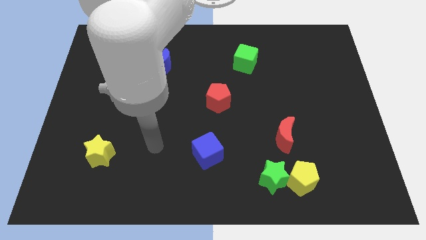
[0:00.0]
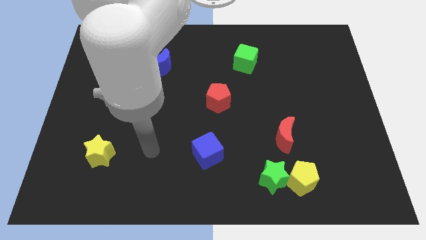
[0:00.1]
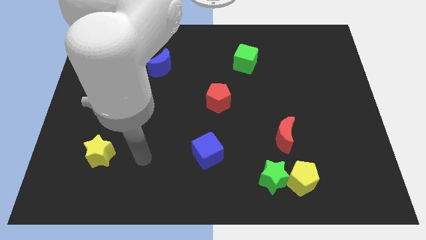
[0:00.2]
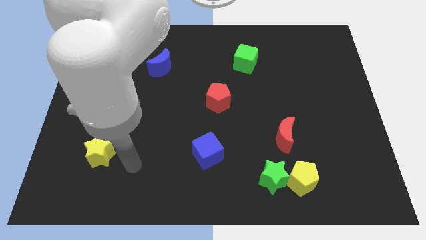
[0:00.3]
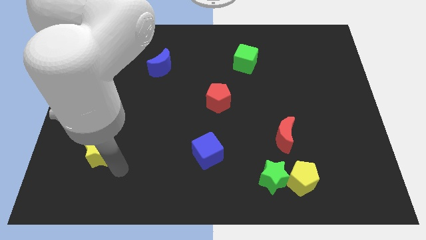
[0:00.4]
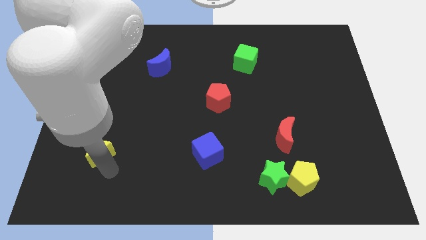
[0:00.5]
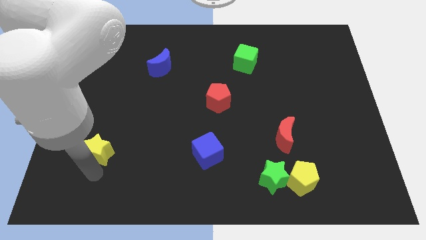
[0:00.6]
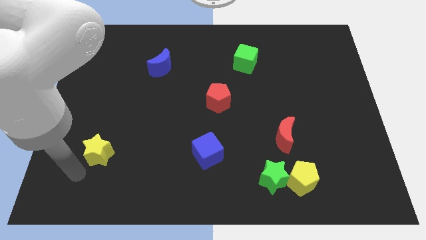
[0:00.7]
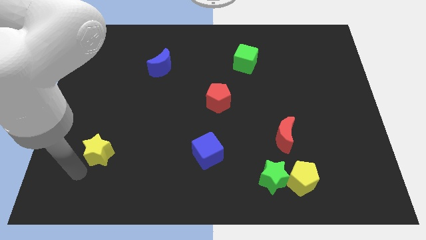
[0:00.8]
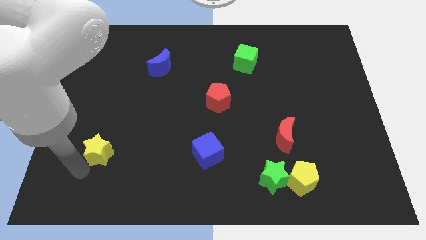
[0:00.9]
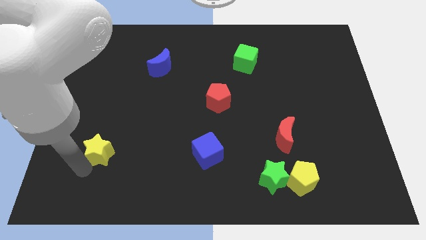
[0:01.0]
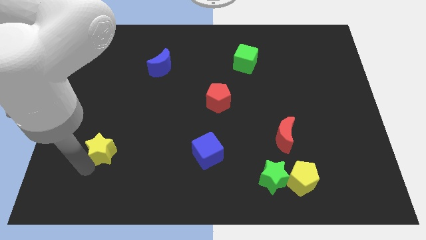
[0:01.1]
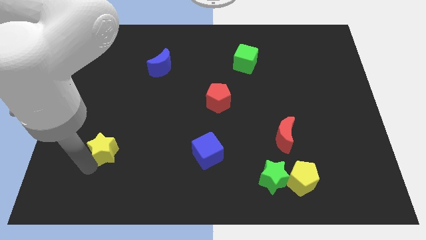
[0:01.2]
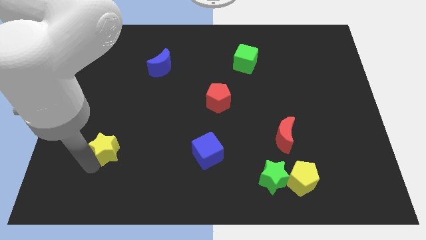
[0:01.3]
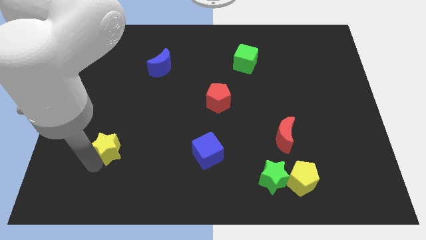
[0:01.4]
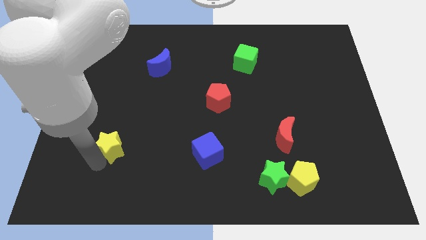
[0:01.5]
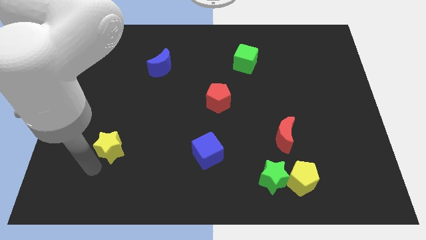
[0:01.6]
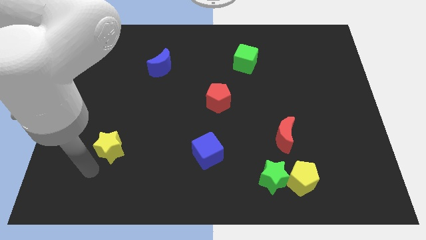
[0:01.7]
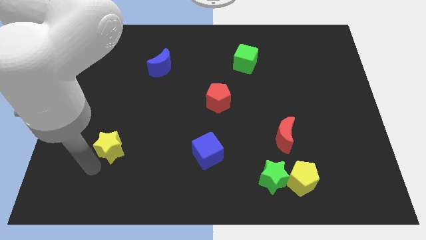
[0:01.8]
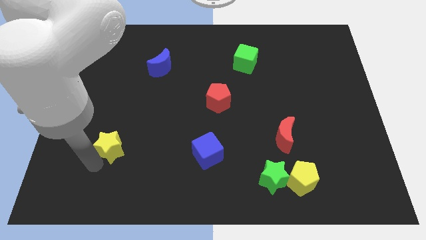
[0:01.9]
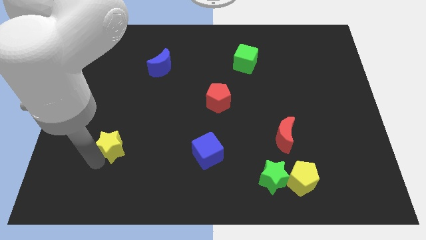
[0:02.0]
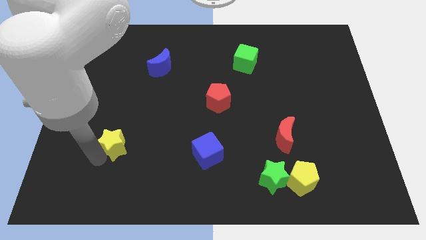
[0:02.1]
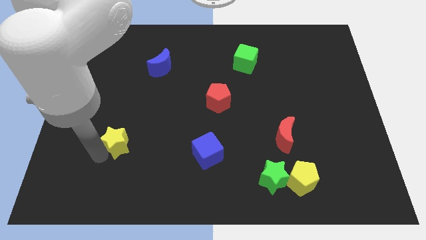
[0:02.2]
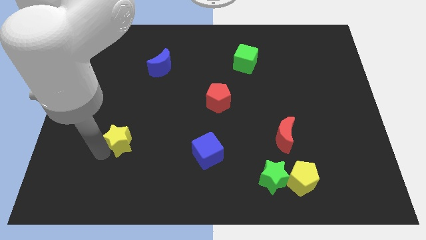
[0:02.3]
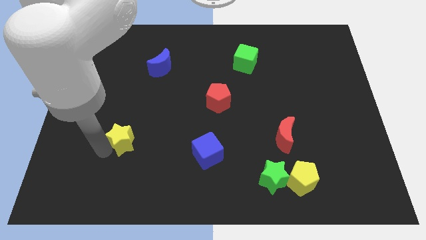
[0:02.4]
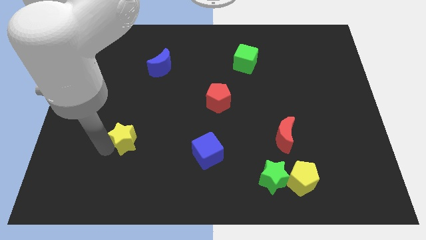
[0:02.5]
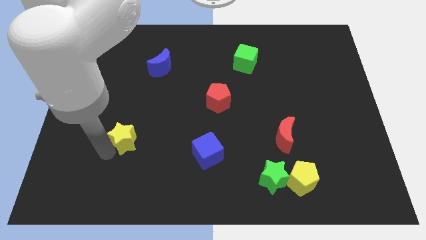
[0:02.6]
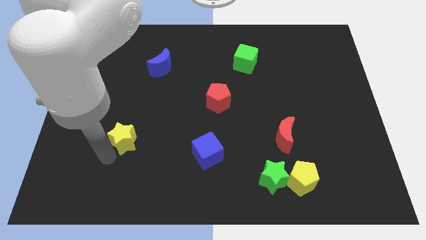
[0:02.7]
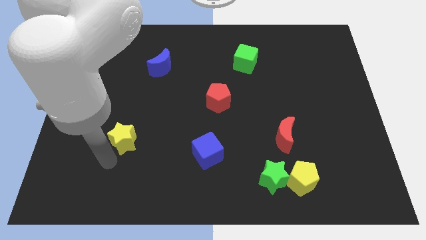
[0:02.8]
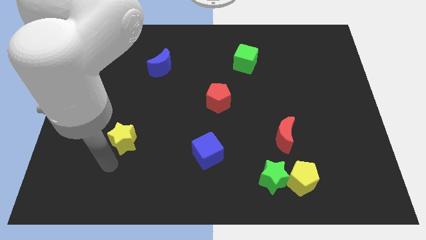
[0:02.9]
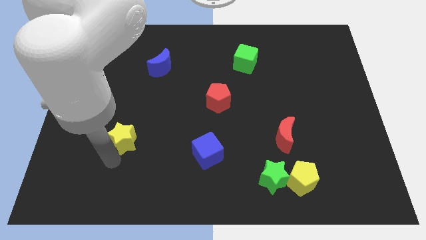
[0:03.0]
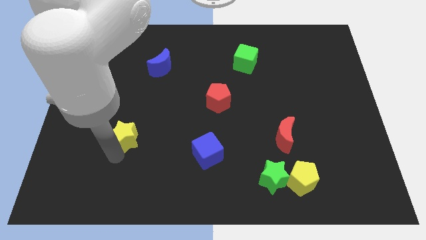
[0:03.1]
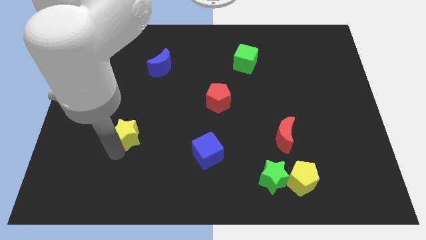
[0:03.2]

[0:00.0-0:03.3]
slide the yellow star slightly upwards and to the right diagonally

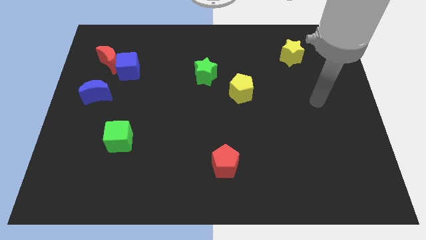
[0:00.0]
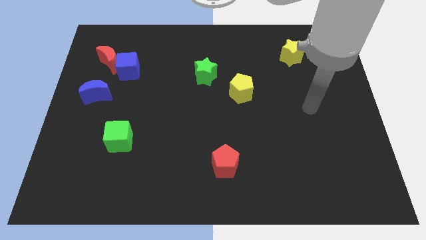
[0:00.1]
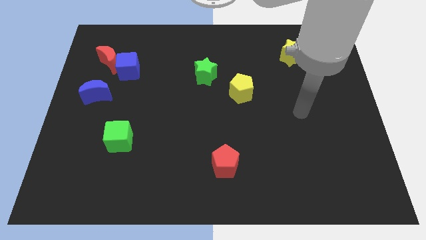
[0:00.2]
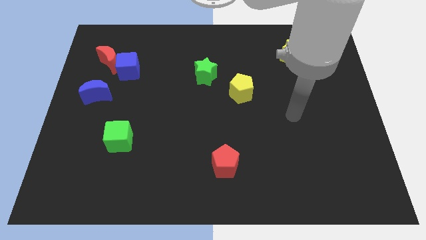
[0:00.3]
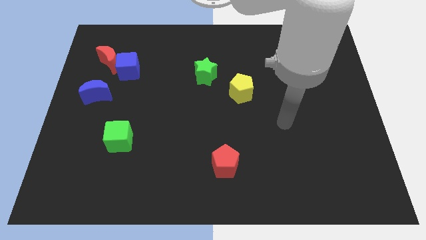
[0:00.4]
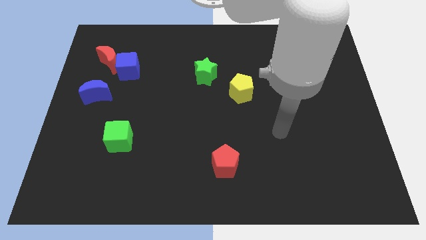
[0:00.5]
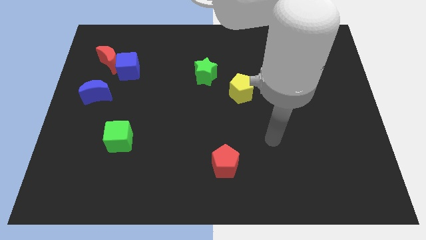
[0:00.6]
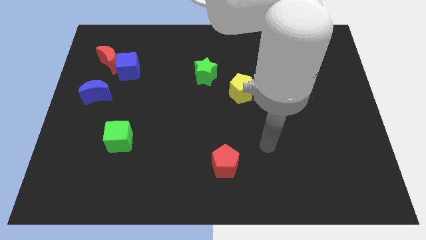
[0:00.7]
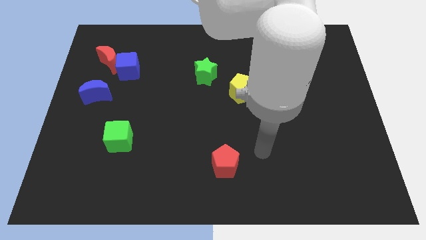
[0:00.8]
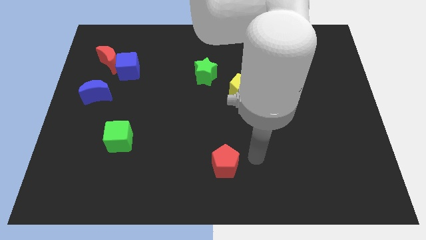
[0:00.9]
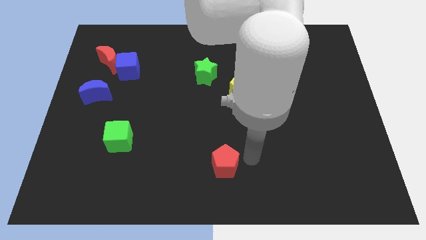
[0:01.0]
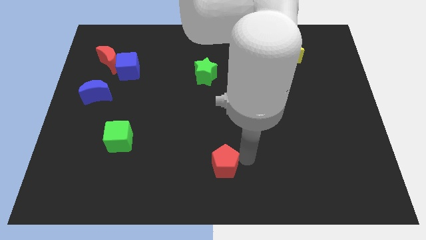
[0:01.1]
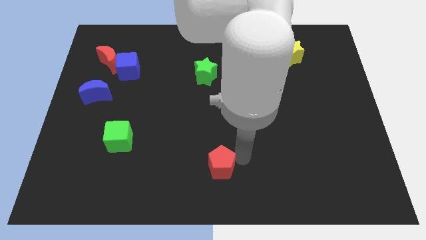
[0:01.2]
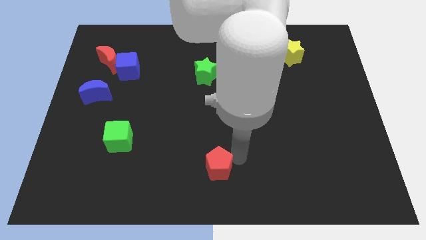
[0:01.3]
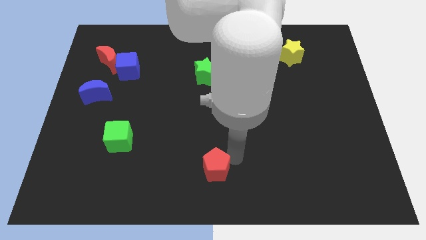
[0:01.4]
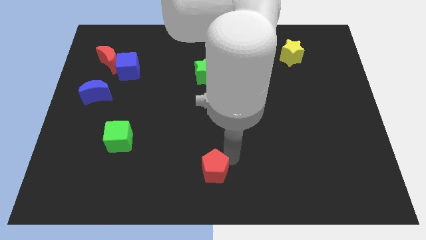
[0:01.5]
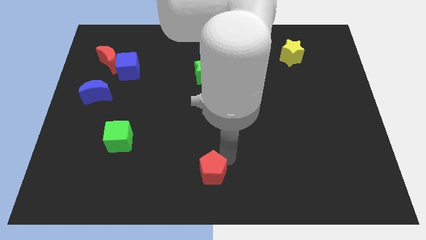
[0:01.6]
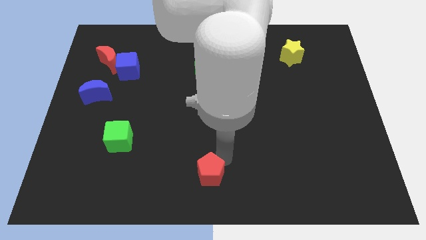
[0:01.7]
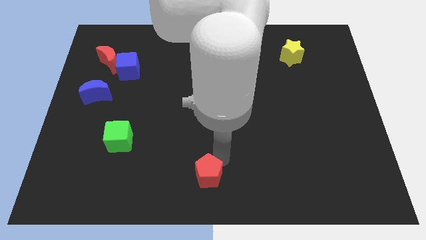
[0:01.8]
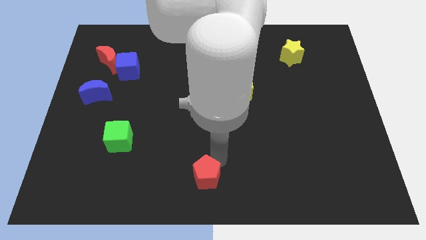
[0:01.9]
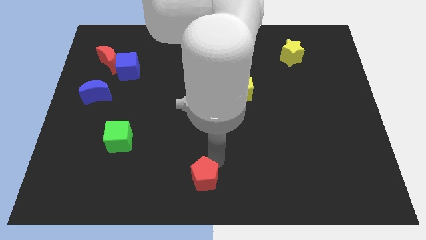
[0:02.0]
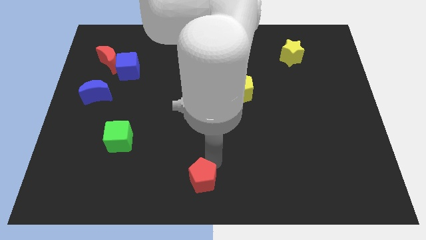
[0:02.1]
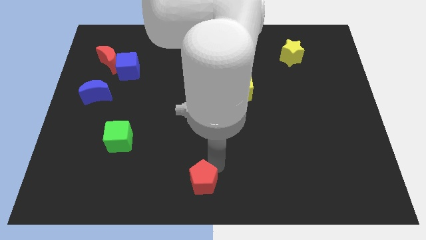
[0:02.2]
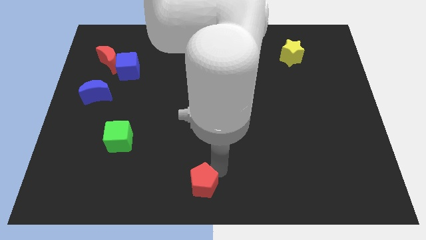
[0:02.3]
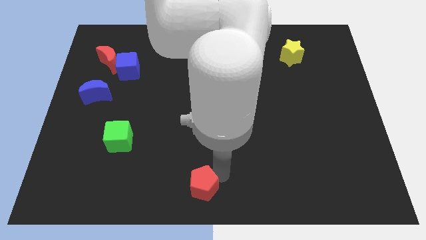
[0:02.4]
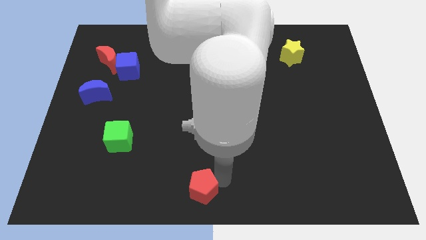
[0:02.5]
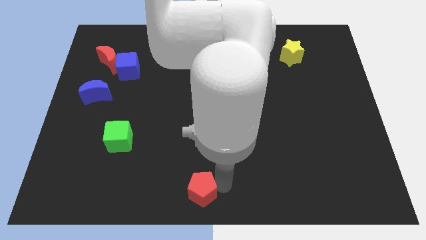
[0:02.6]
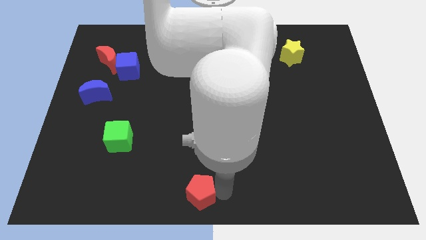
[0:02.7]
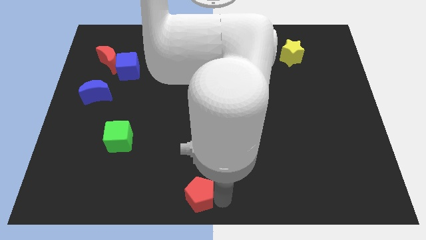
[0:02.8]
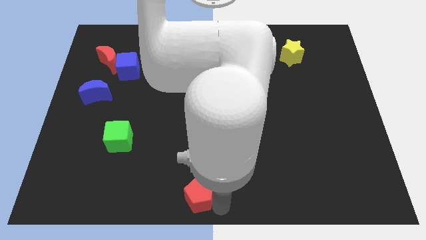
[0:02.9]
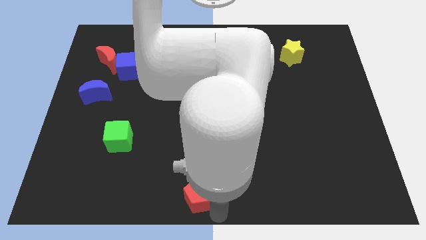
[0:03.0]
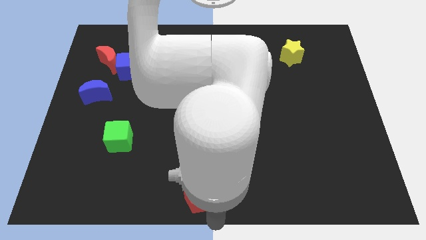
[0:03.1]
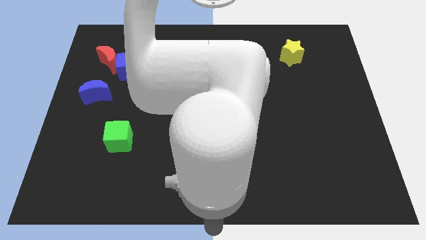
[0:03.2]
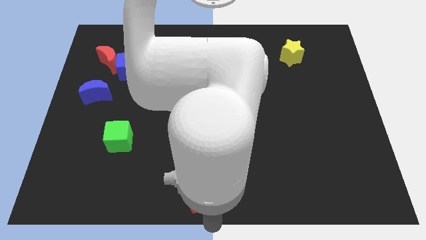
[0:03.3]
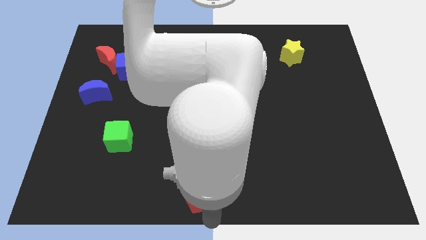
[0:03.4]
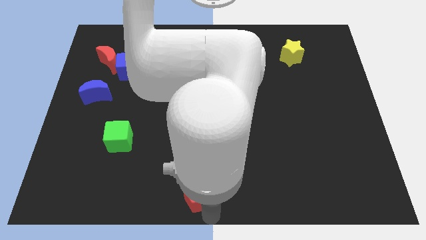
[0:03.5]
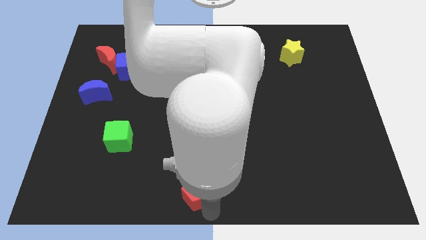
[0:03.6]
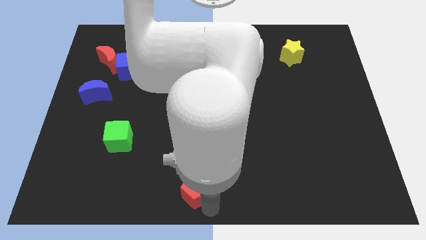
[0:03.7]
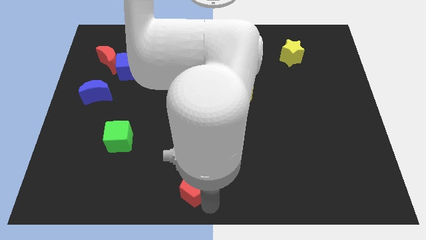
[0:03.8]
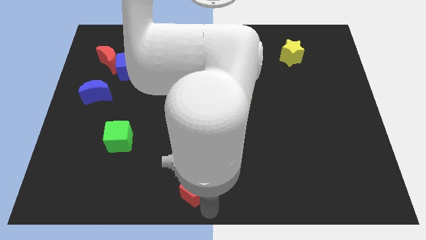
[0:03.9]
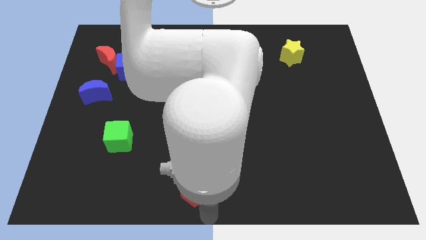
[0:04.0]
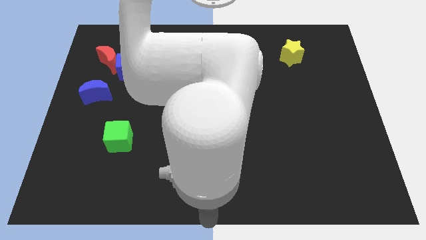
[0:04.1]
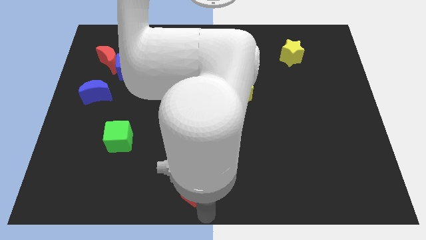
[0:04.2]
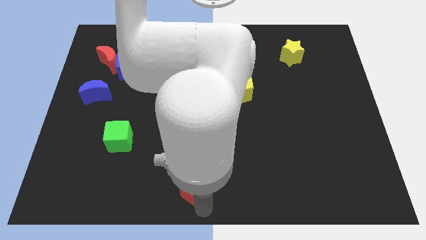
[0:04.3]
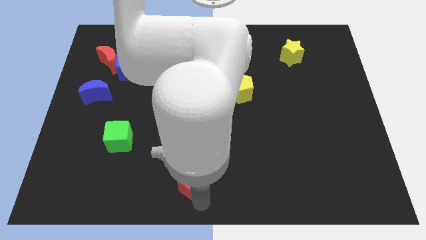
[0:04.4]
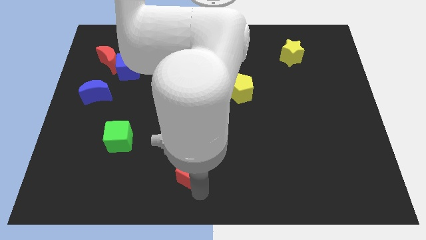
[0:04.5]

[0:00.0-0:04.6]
slide the red pentagon somewhat left
